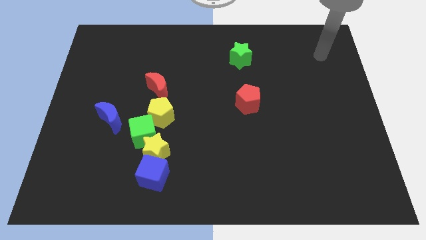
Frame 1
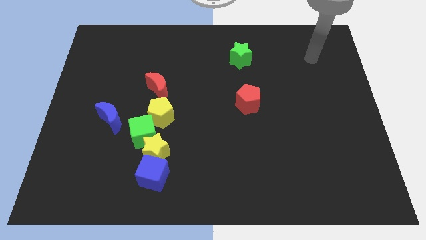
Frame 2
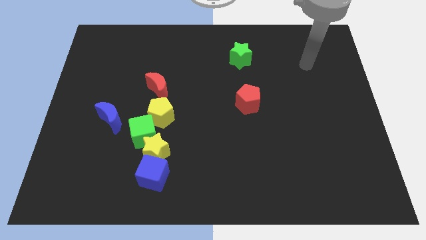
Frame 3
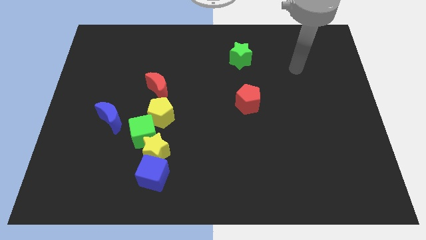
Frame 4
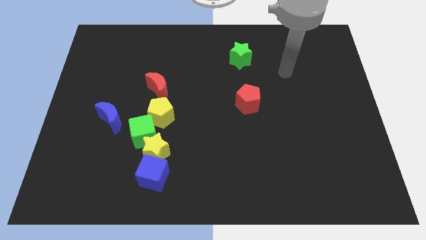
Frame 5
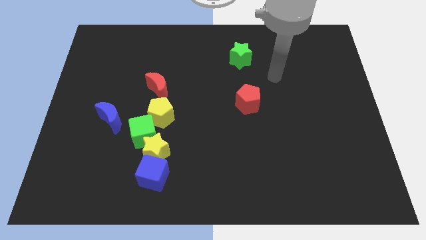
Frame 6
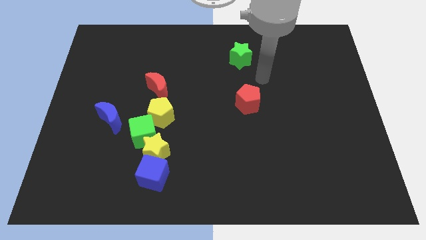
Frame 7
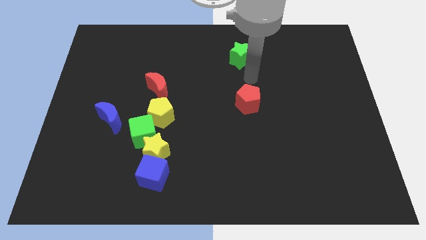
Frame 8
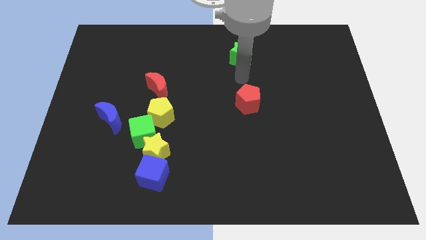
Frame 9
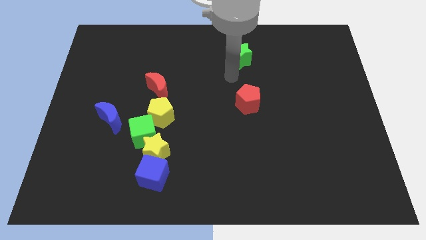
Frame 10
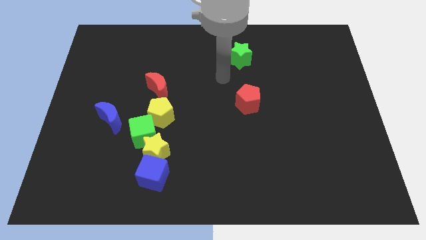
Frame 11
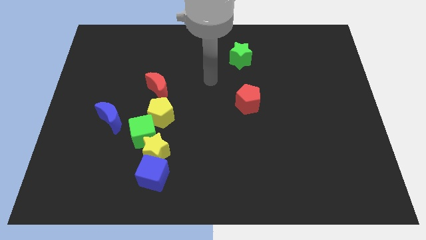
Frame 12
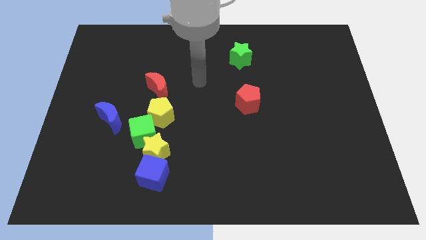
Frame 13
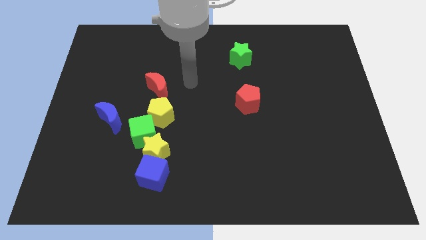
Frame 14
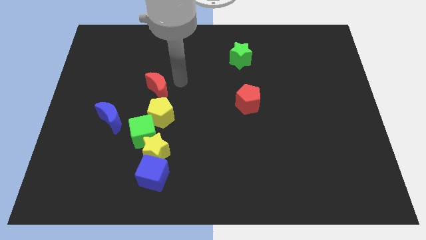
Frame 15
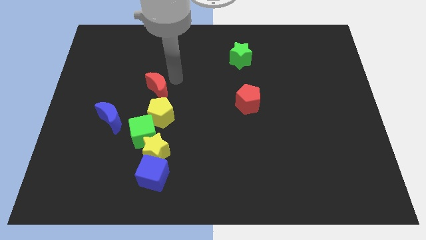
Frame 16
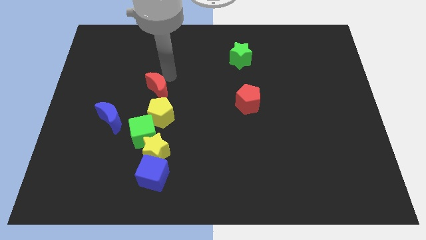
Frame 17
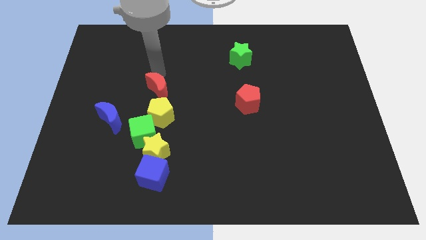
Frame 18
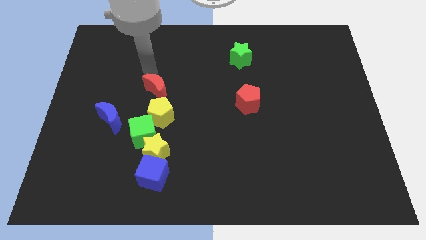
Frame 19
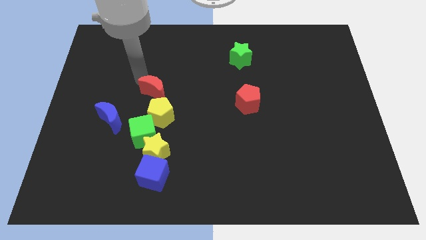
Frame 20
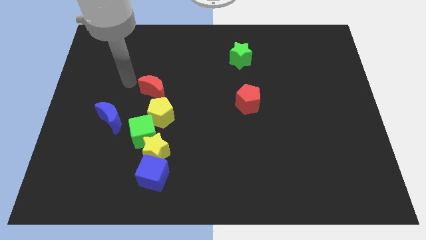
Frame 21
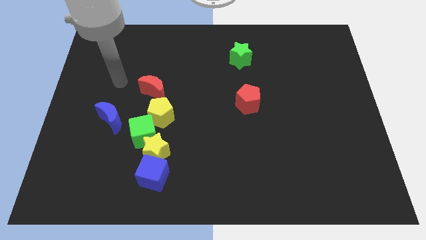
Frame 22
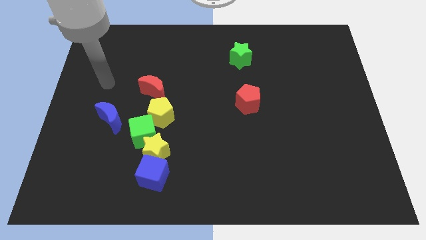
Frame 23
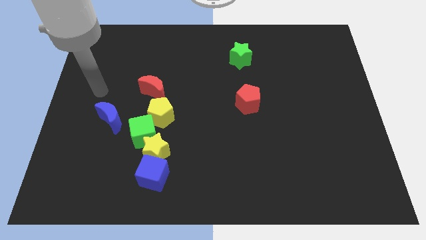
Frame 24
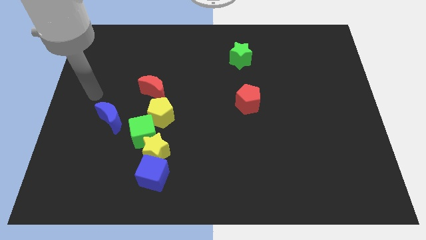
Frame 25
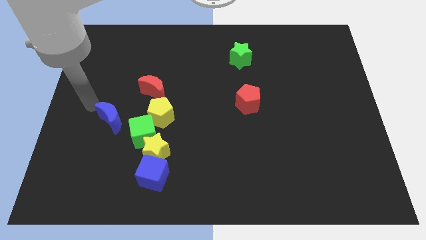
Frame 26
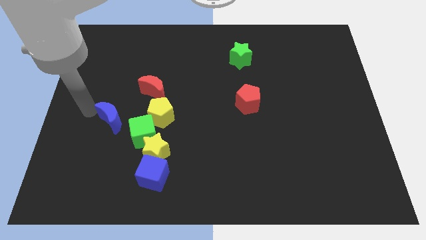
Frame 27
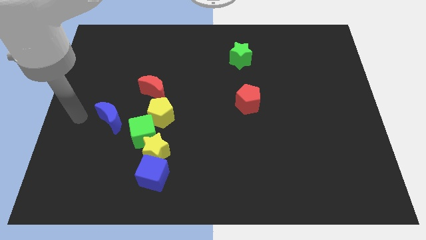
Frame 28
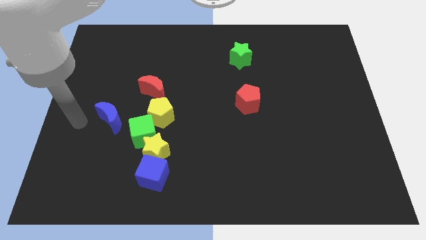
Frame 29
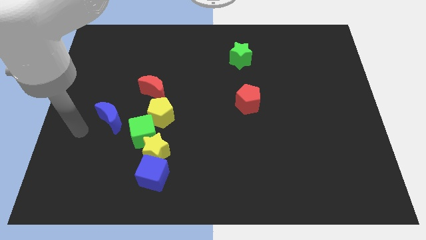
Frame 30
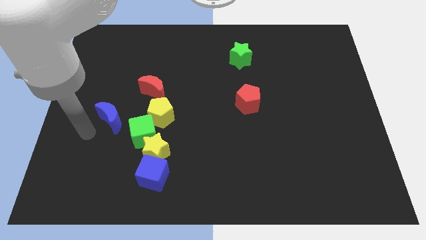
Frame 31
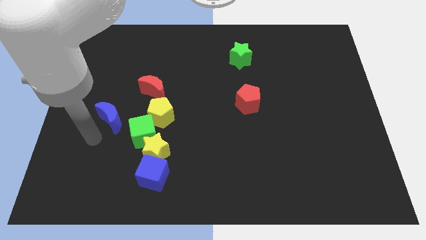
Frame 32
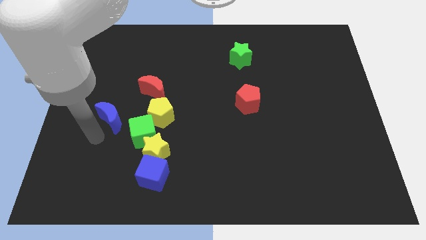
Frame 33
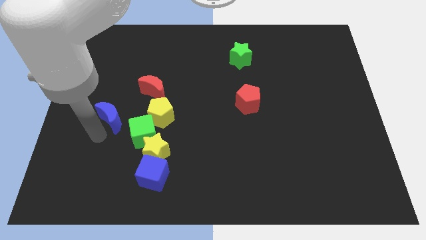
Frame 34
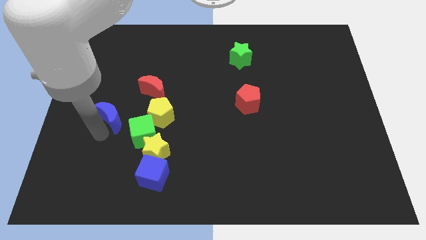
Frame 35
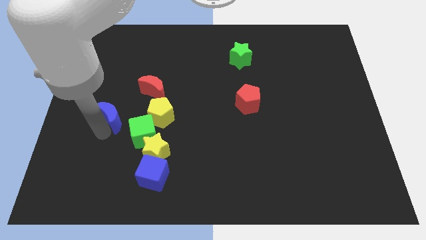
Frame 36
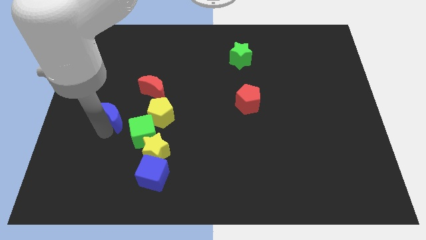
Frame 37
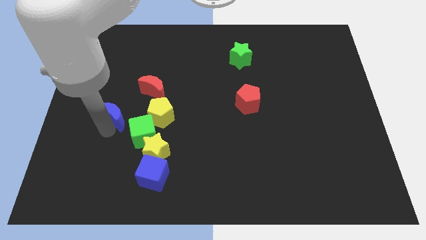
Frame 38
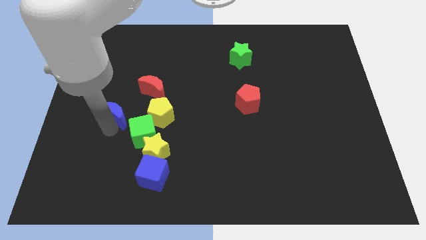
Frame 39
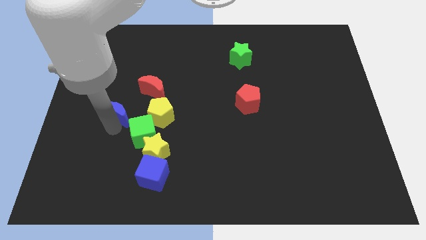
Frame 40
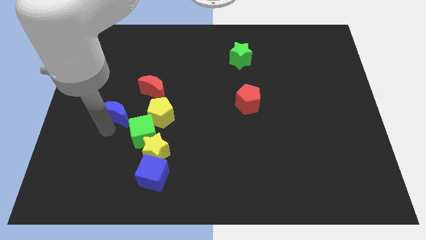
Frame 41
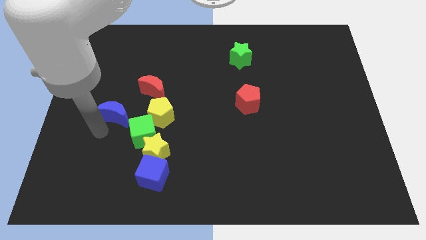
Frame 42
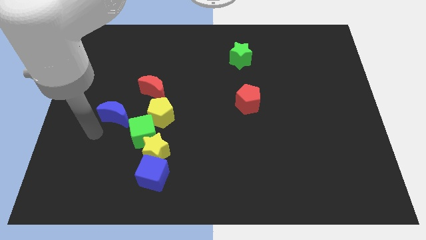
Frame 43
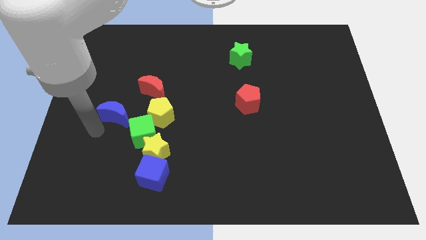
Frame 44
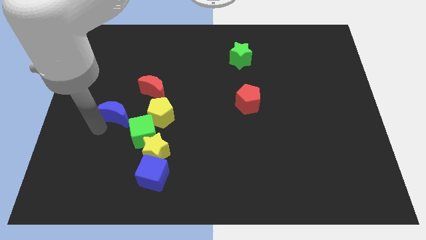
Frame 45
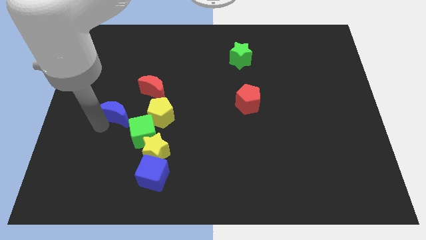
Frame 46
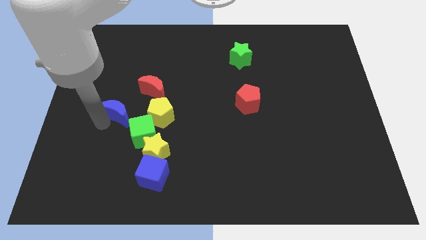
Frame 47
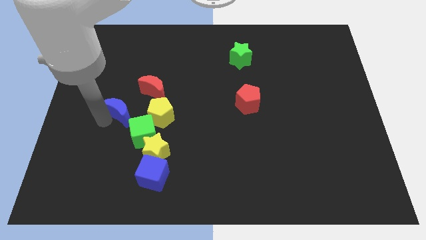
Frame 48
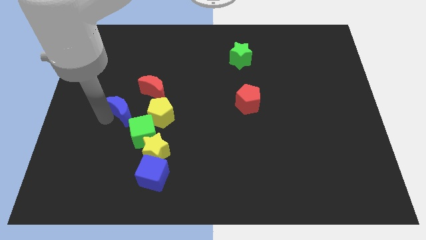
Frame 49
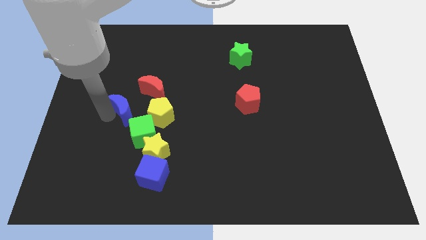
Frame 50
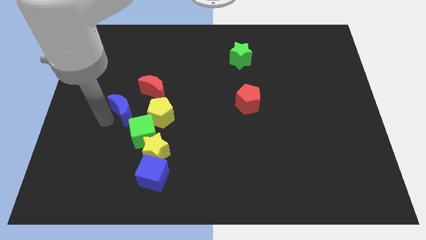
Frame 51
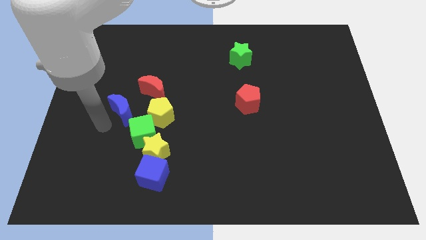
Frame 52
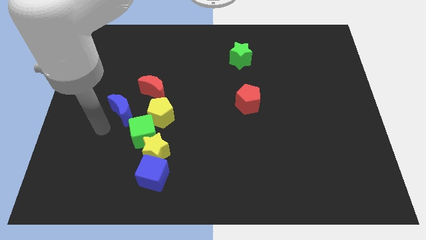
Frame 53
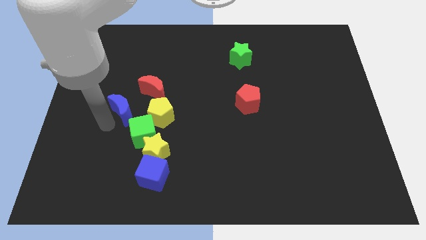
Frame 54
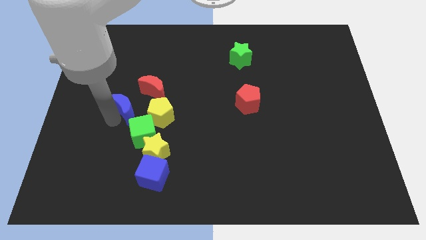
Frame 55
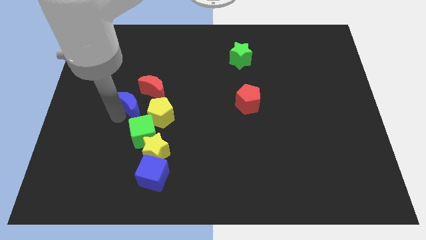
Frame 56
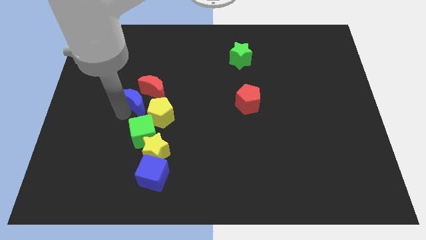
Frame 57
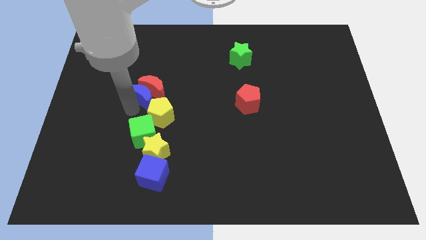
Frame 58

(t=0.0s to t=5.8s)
slightly move the blue moon up and right diagonally

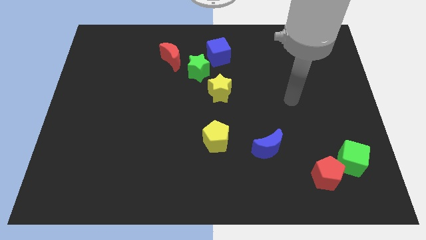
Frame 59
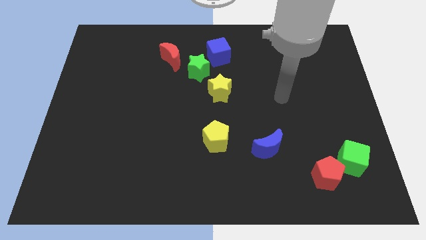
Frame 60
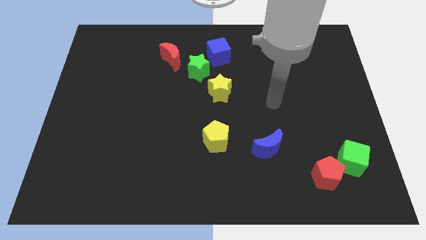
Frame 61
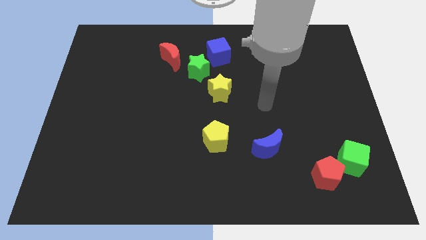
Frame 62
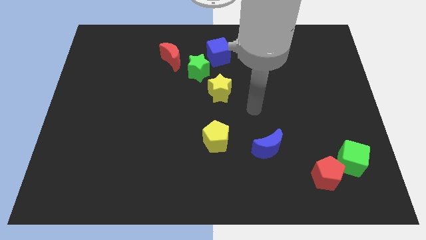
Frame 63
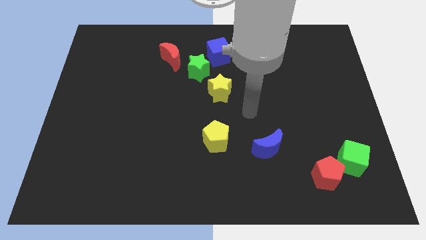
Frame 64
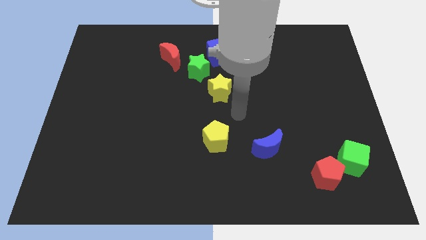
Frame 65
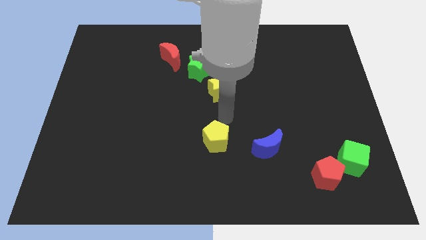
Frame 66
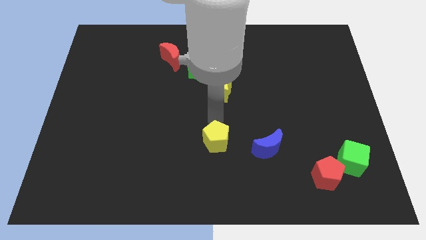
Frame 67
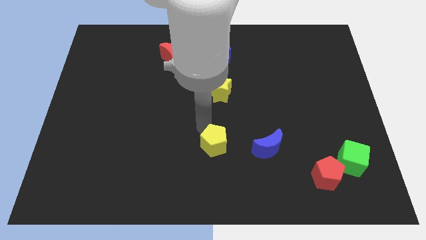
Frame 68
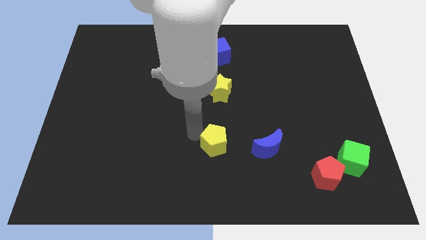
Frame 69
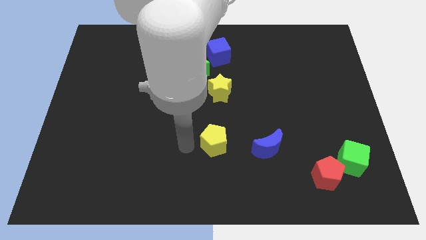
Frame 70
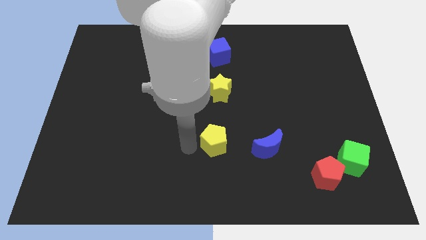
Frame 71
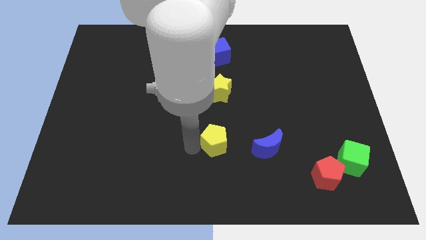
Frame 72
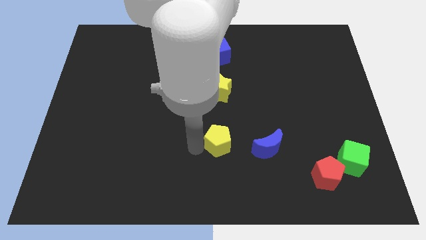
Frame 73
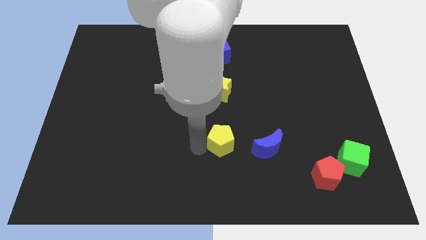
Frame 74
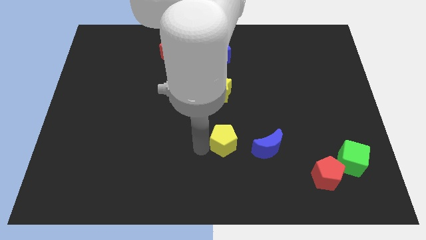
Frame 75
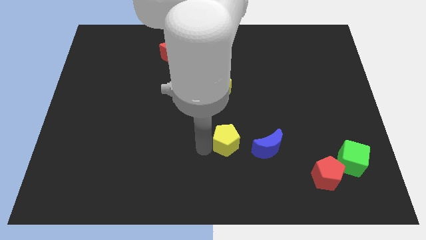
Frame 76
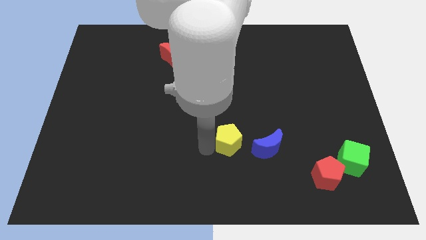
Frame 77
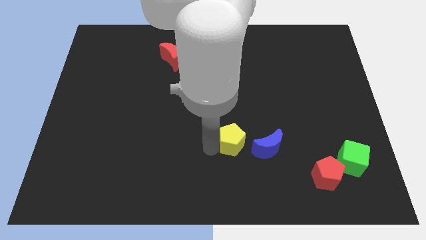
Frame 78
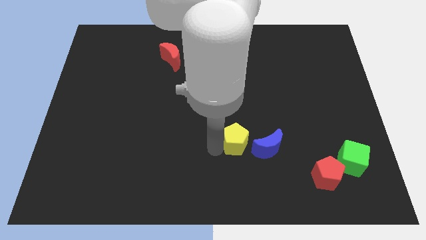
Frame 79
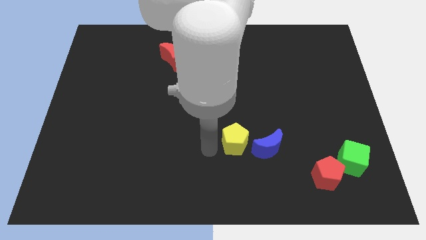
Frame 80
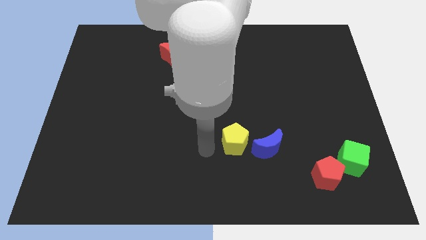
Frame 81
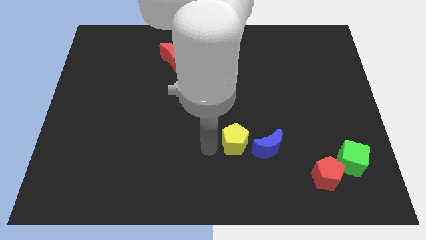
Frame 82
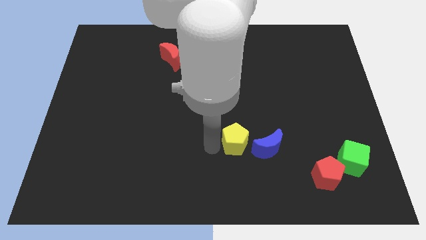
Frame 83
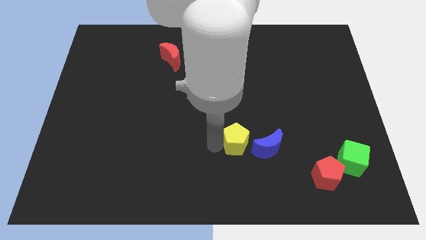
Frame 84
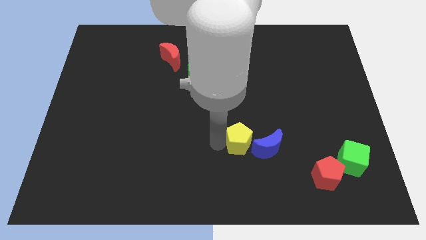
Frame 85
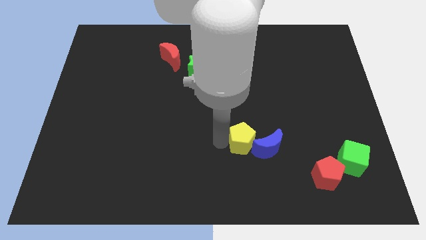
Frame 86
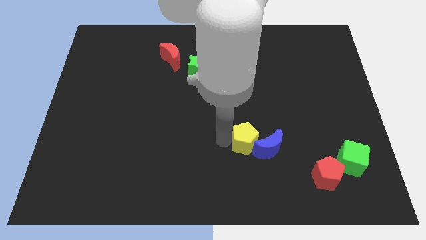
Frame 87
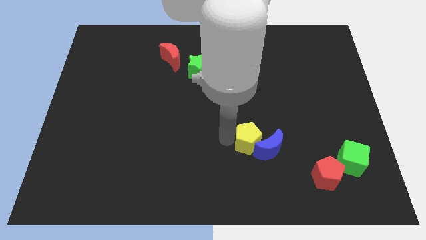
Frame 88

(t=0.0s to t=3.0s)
push the yellow pentagon a little bit right
